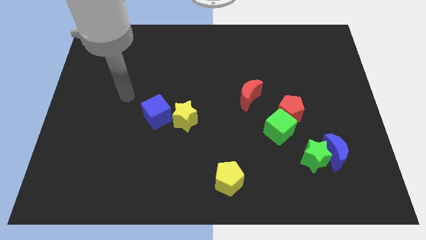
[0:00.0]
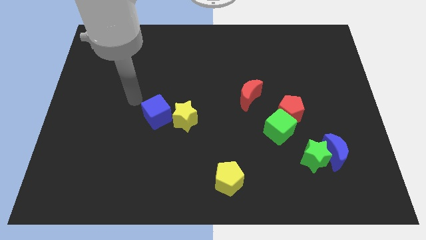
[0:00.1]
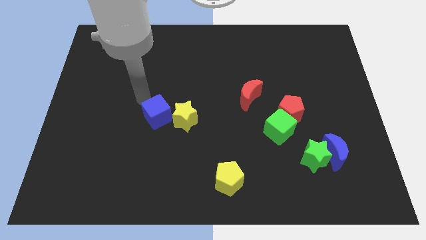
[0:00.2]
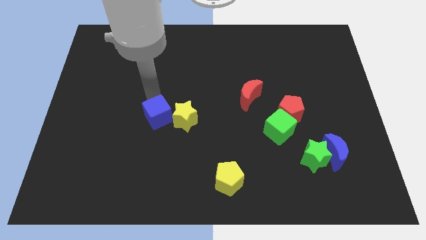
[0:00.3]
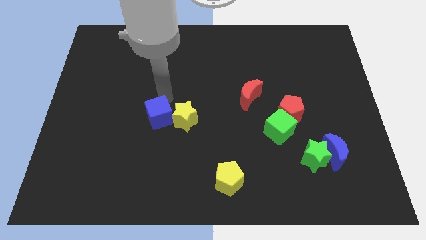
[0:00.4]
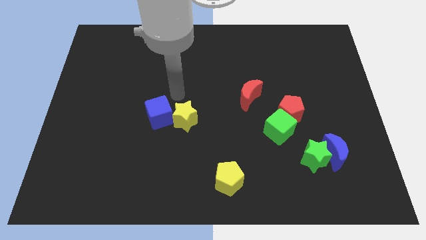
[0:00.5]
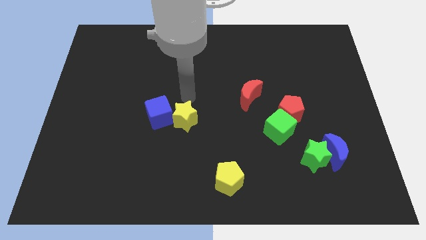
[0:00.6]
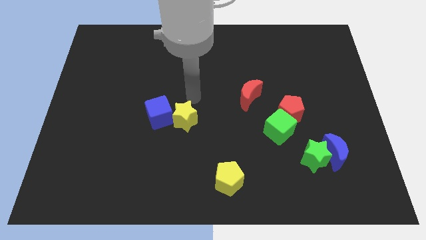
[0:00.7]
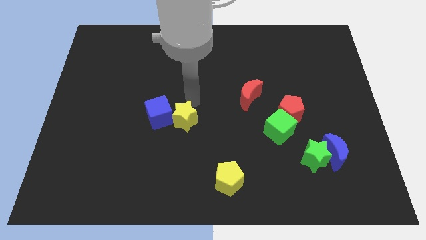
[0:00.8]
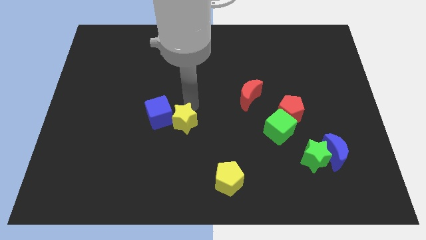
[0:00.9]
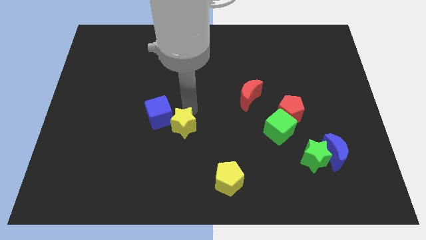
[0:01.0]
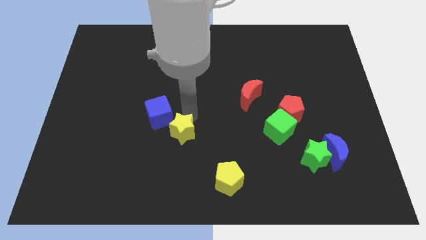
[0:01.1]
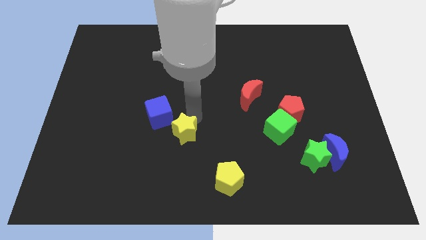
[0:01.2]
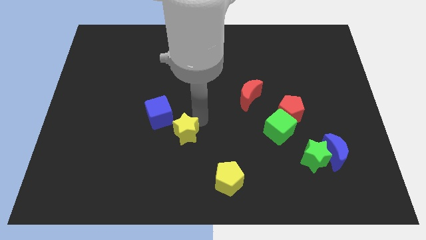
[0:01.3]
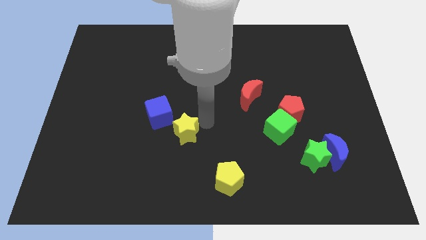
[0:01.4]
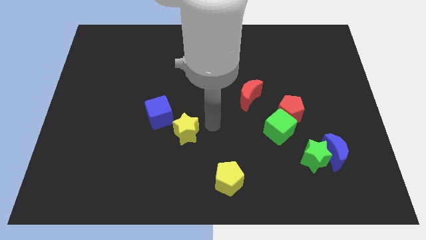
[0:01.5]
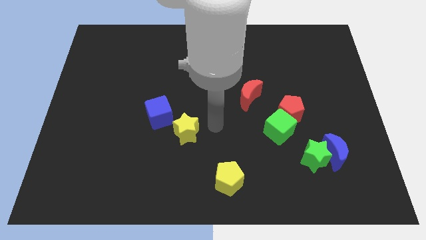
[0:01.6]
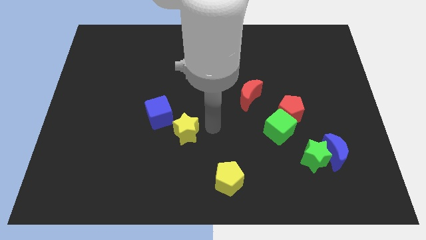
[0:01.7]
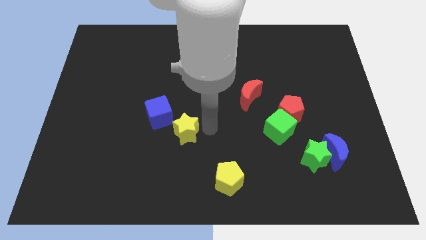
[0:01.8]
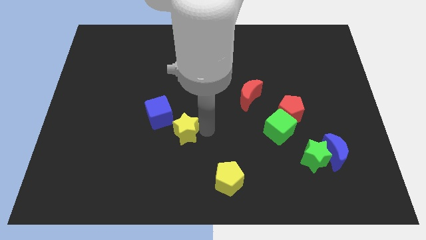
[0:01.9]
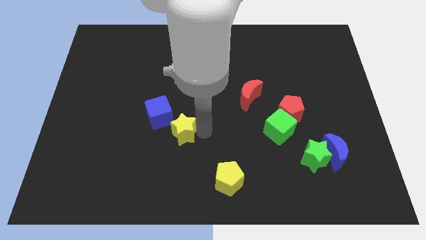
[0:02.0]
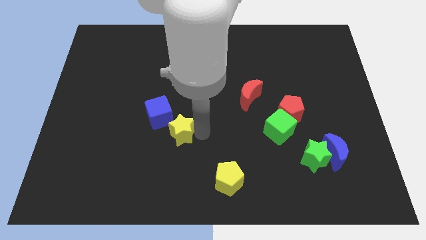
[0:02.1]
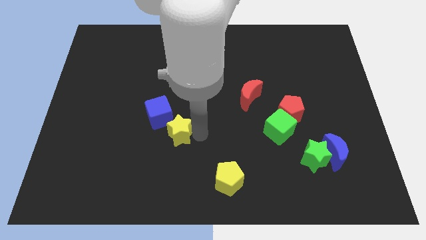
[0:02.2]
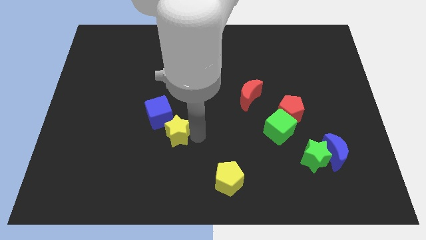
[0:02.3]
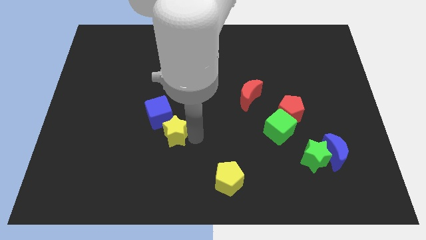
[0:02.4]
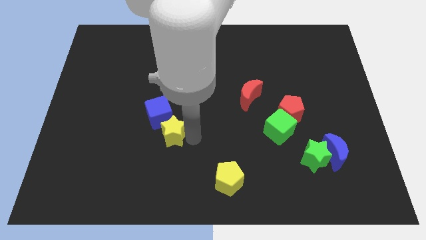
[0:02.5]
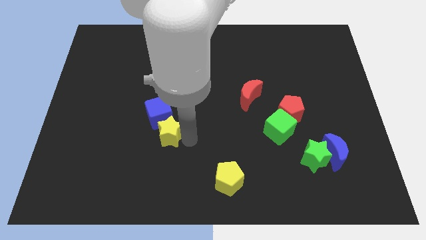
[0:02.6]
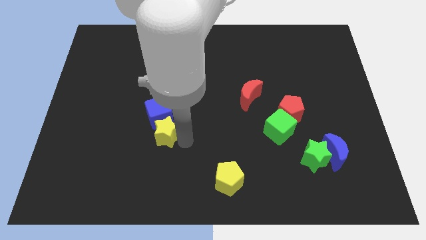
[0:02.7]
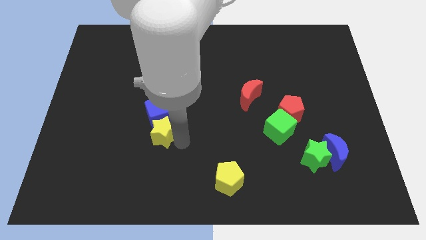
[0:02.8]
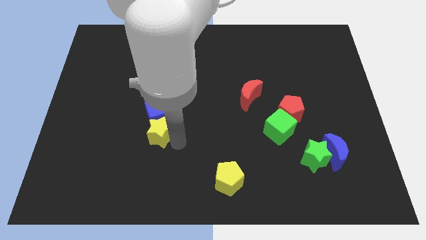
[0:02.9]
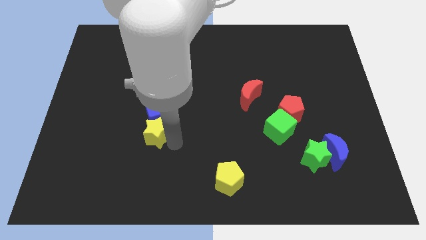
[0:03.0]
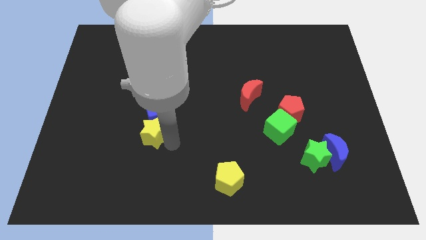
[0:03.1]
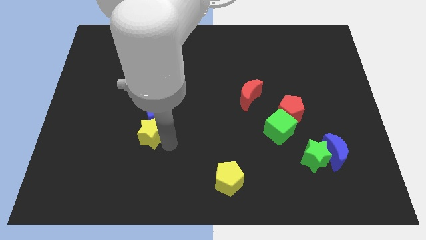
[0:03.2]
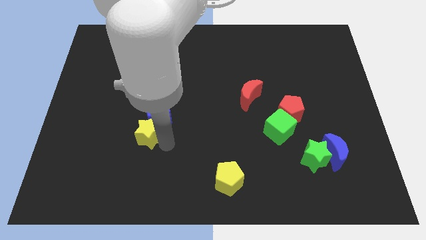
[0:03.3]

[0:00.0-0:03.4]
slightly move the yellow star to the left

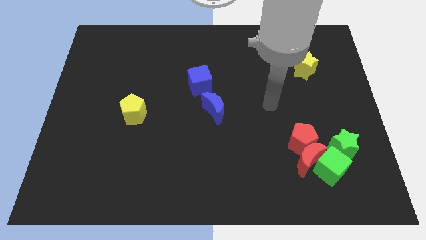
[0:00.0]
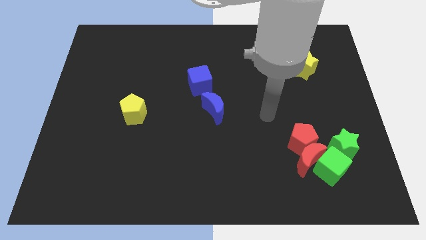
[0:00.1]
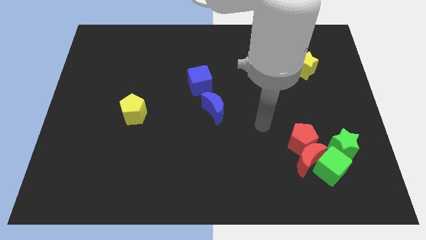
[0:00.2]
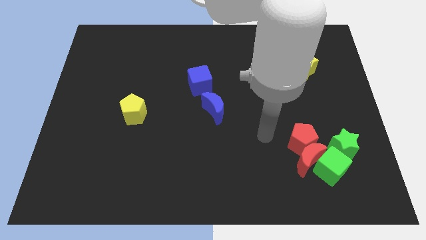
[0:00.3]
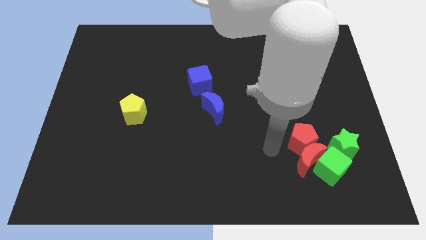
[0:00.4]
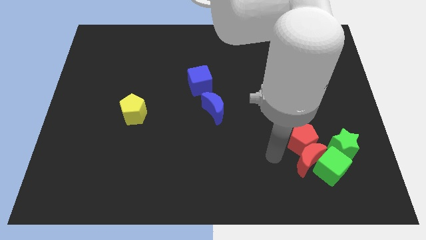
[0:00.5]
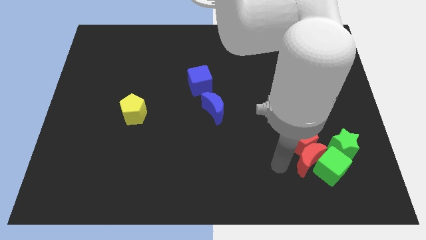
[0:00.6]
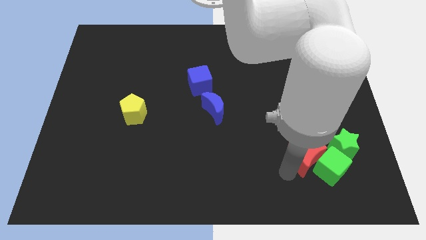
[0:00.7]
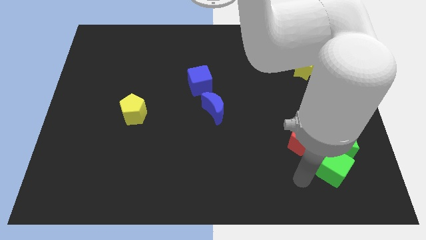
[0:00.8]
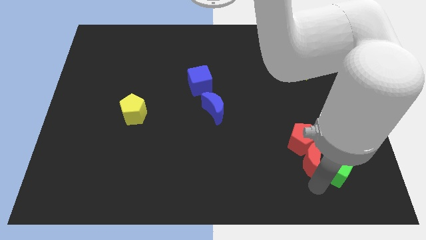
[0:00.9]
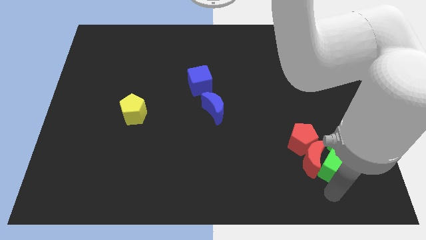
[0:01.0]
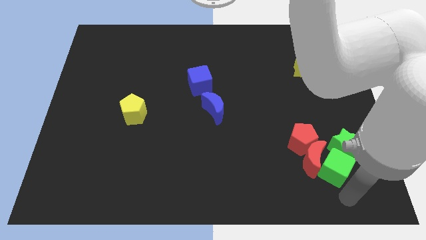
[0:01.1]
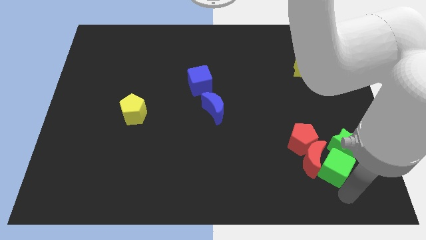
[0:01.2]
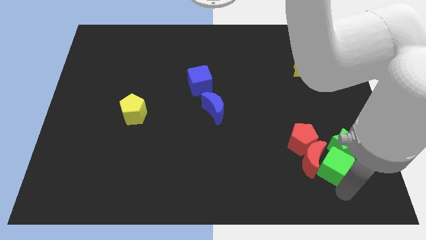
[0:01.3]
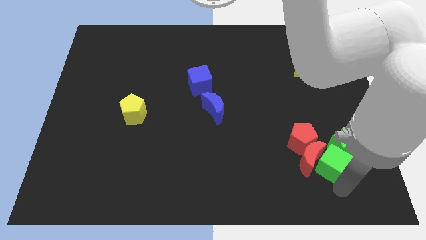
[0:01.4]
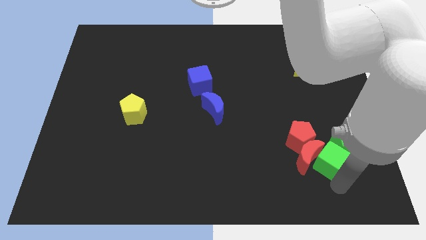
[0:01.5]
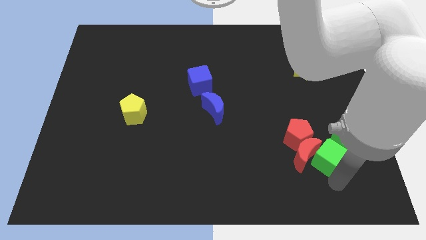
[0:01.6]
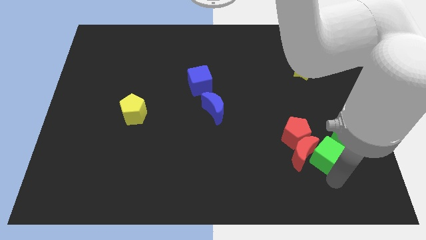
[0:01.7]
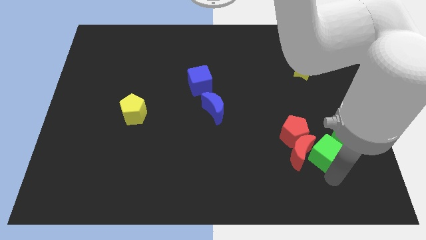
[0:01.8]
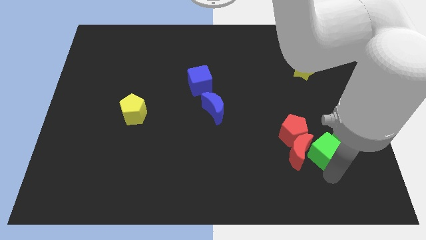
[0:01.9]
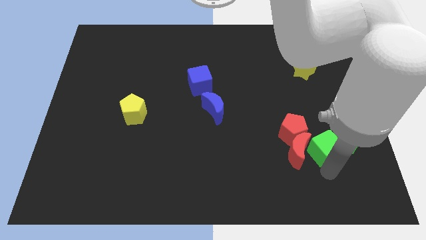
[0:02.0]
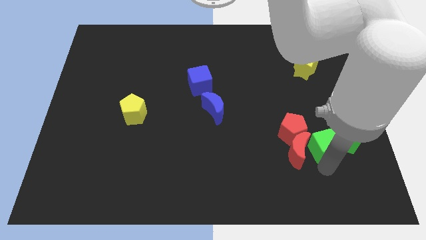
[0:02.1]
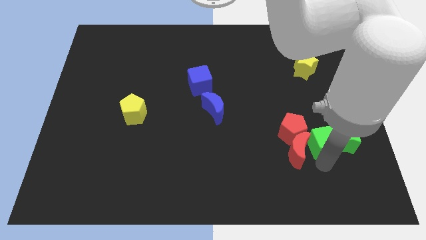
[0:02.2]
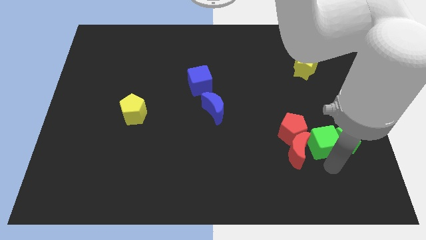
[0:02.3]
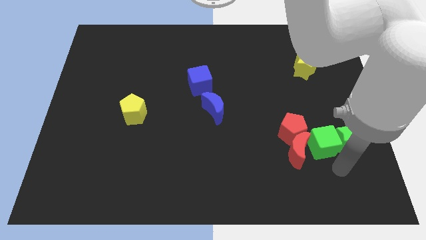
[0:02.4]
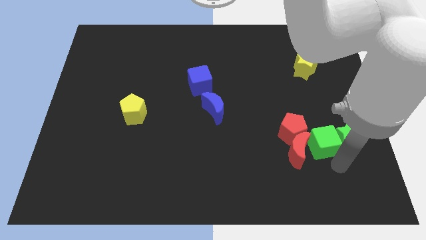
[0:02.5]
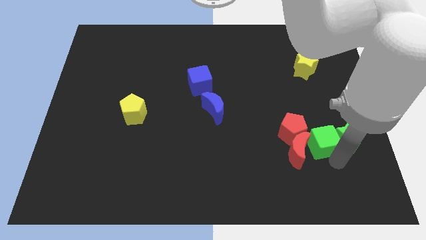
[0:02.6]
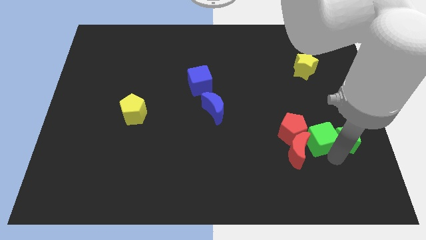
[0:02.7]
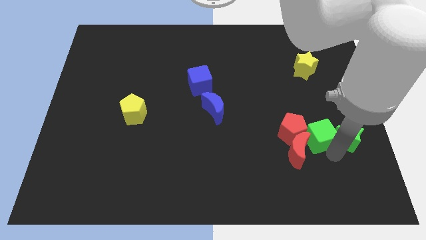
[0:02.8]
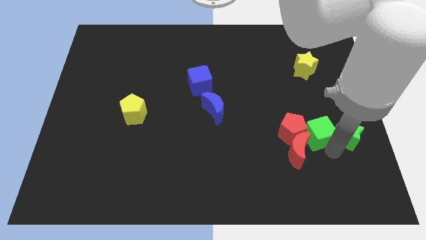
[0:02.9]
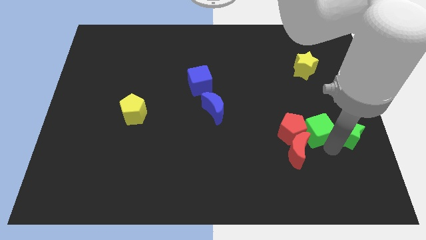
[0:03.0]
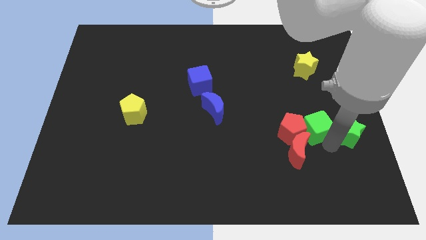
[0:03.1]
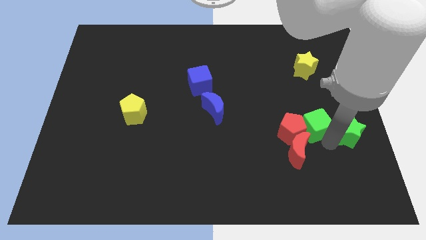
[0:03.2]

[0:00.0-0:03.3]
slightly push the green cube up and then to the left

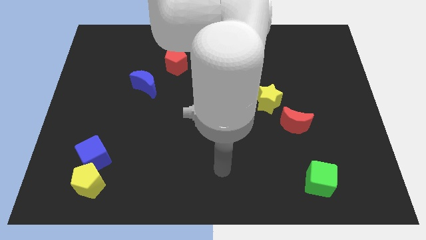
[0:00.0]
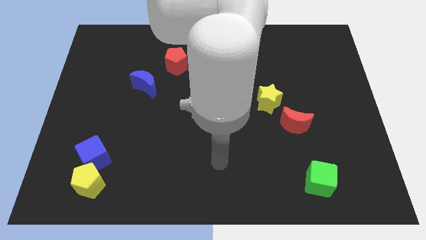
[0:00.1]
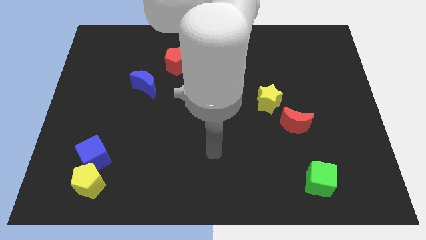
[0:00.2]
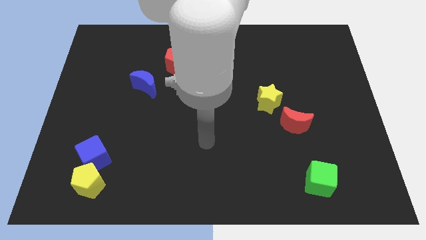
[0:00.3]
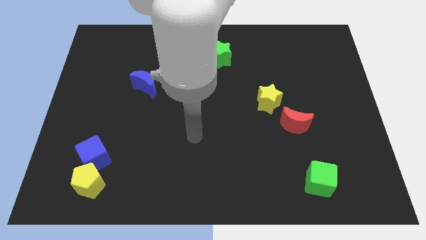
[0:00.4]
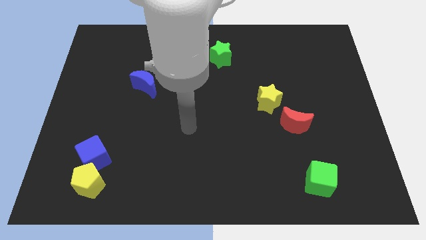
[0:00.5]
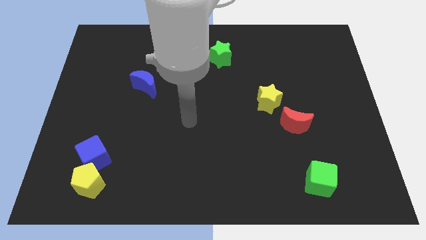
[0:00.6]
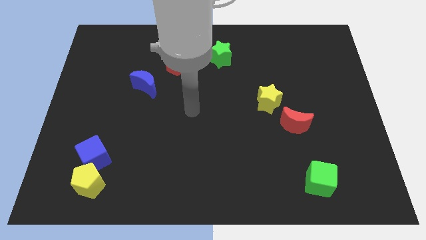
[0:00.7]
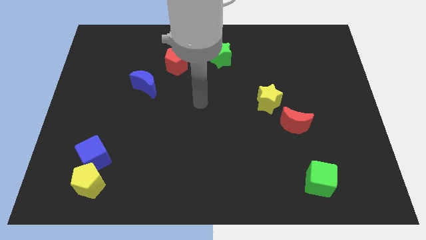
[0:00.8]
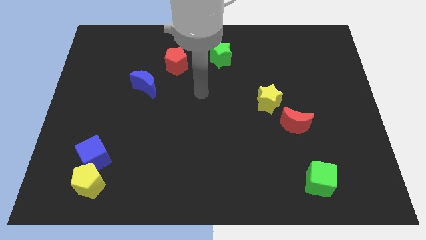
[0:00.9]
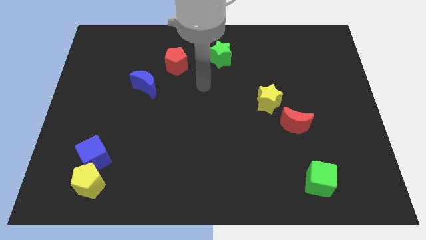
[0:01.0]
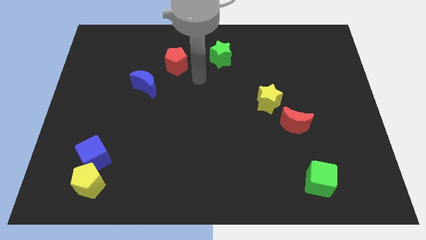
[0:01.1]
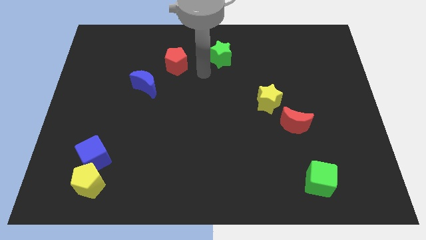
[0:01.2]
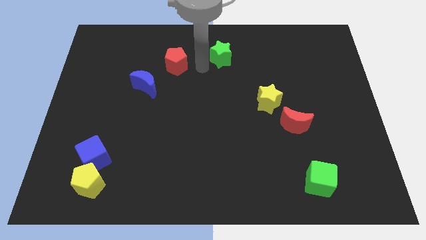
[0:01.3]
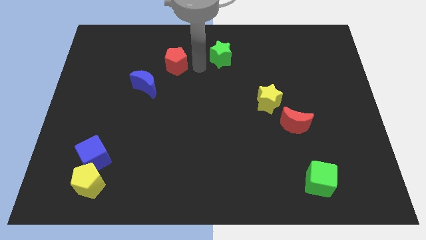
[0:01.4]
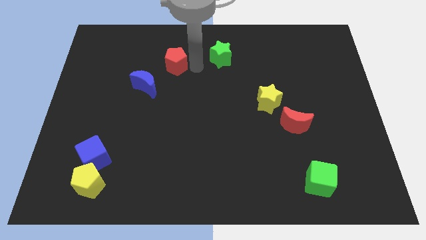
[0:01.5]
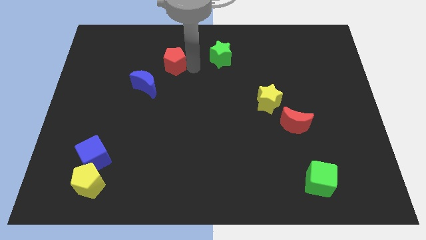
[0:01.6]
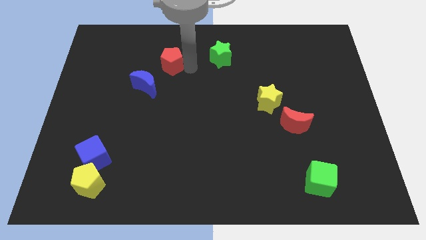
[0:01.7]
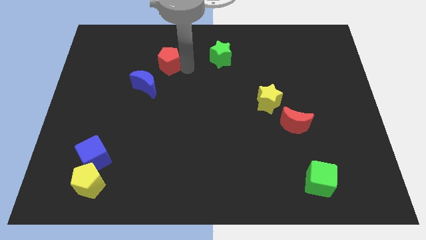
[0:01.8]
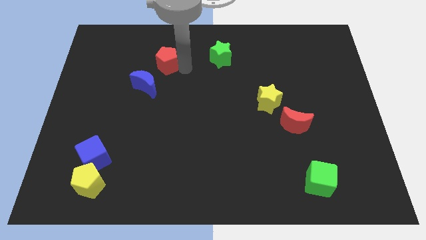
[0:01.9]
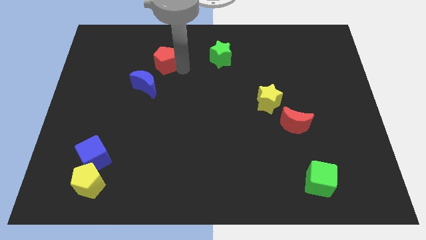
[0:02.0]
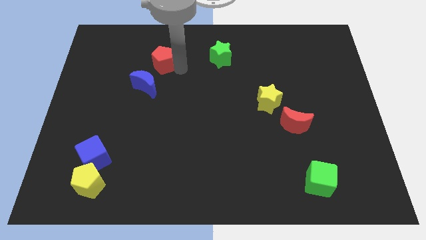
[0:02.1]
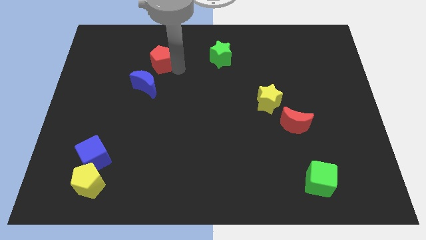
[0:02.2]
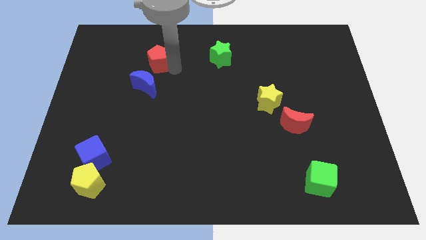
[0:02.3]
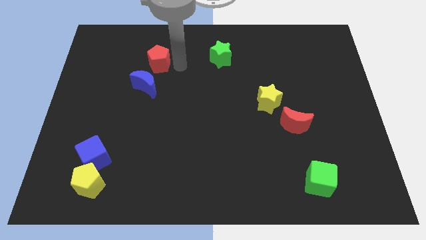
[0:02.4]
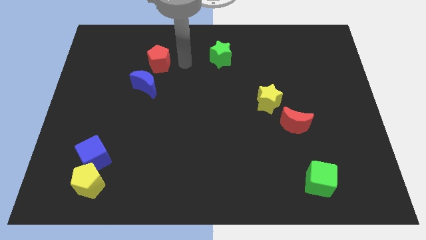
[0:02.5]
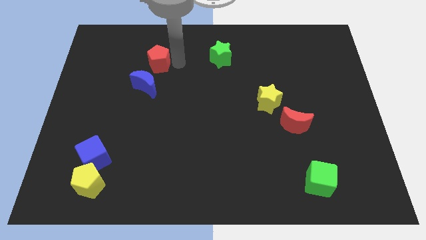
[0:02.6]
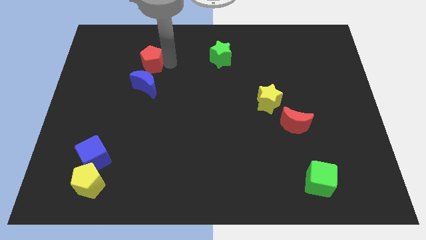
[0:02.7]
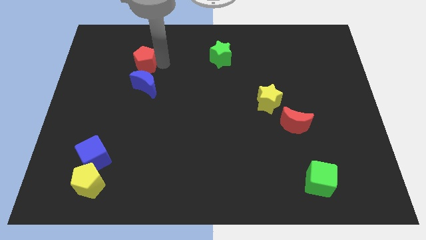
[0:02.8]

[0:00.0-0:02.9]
slightly push the red pentagon to the left
